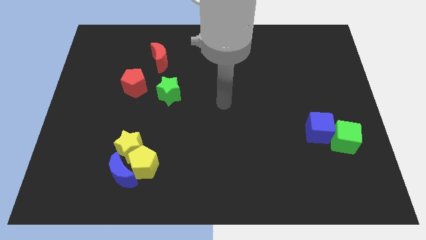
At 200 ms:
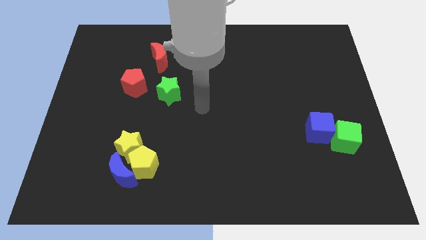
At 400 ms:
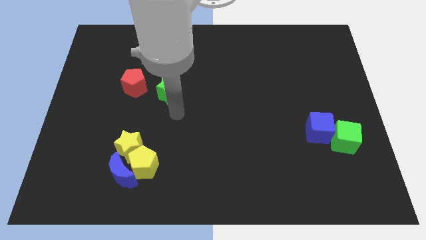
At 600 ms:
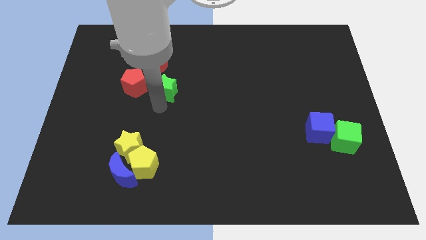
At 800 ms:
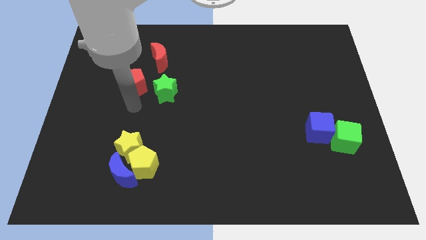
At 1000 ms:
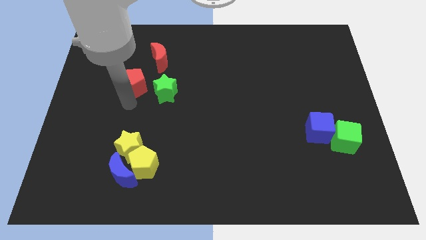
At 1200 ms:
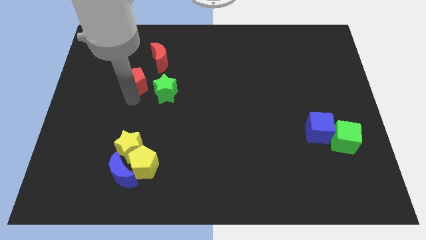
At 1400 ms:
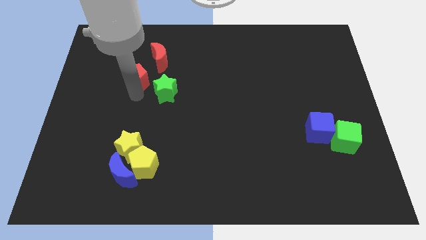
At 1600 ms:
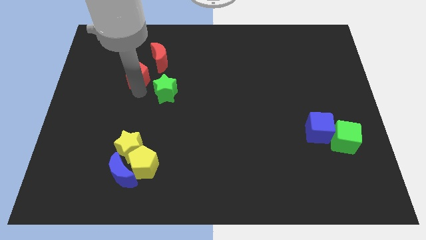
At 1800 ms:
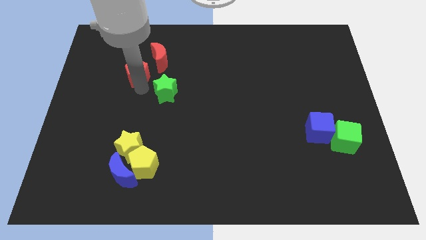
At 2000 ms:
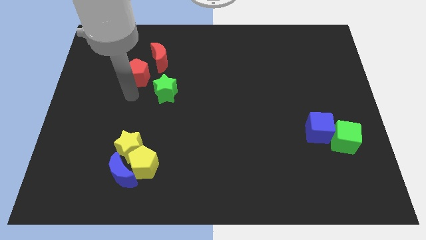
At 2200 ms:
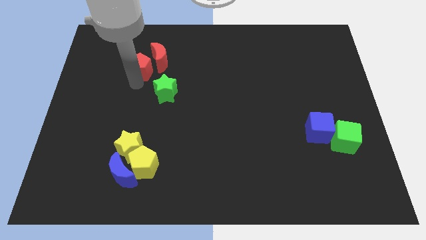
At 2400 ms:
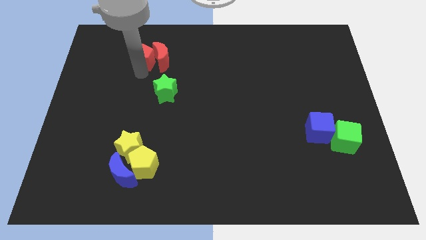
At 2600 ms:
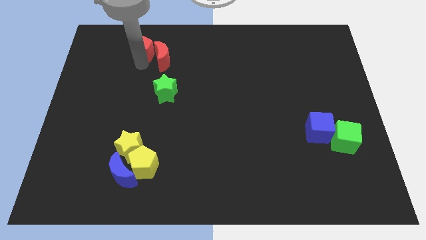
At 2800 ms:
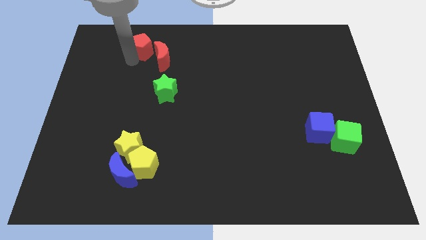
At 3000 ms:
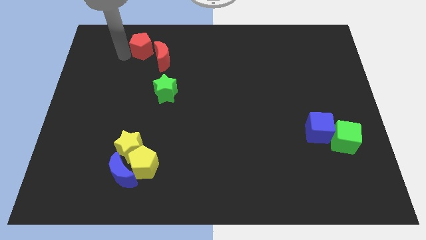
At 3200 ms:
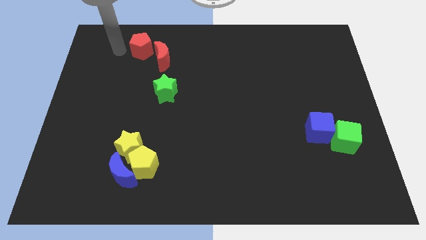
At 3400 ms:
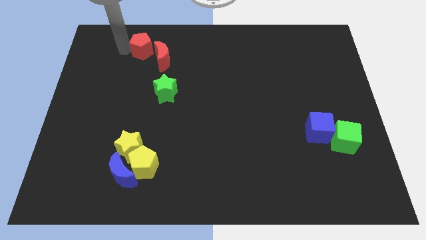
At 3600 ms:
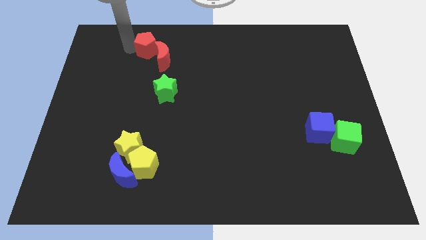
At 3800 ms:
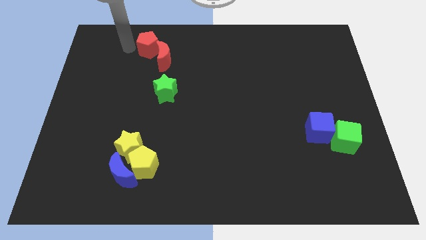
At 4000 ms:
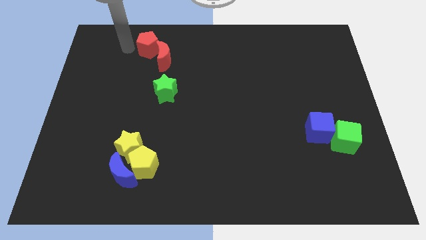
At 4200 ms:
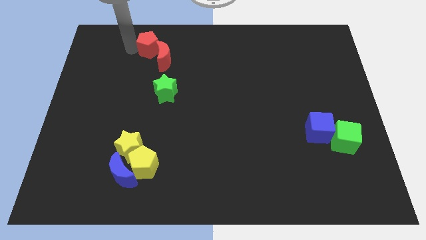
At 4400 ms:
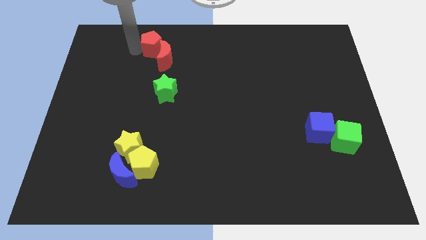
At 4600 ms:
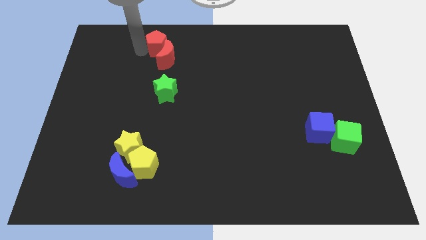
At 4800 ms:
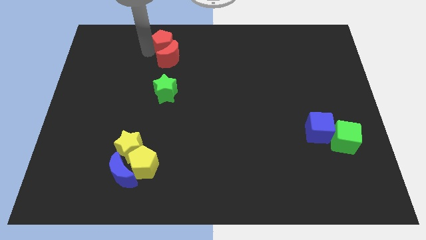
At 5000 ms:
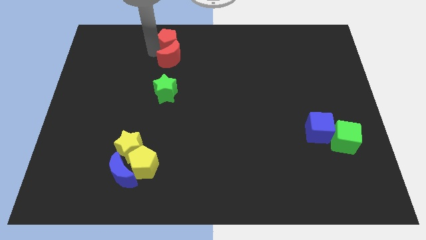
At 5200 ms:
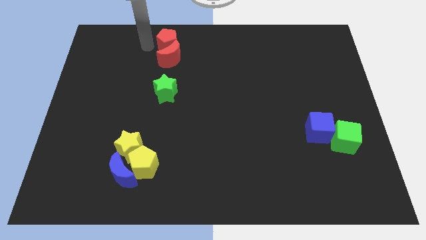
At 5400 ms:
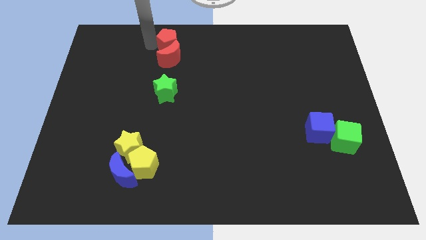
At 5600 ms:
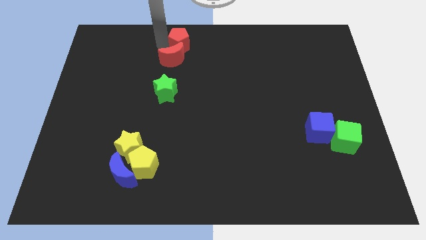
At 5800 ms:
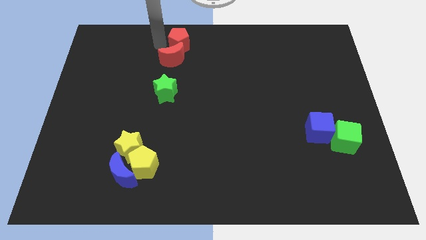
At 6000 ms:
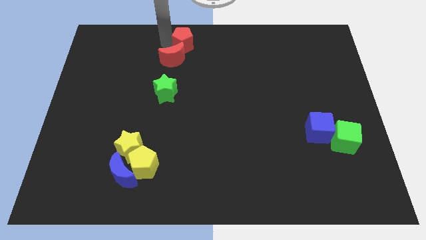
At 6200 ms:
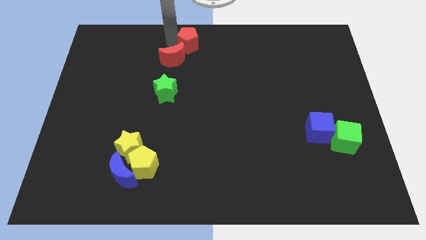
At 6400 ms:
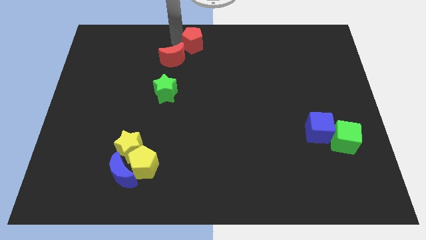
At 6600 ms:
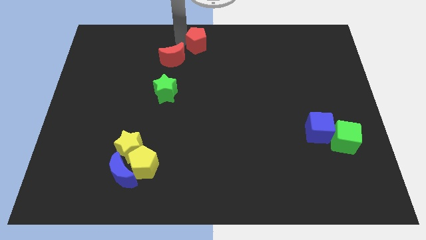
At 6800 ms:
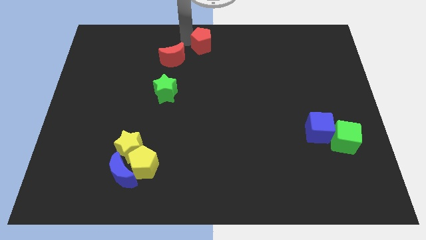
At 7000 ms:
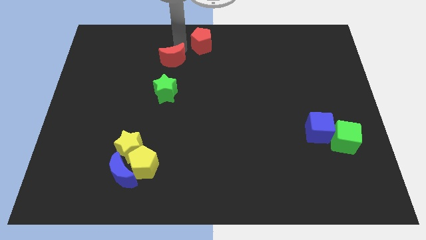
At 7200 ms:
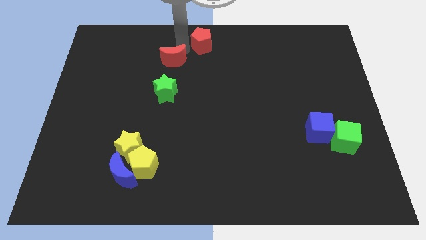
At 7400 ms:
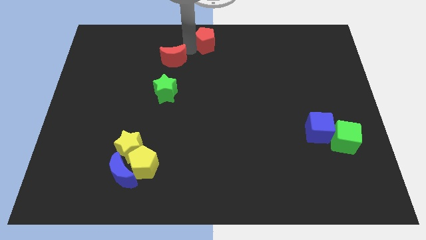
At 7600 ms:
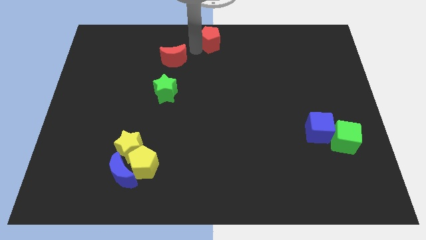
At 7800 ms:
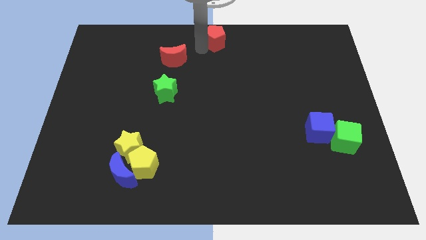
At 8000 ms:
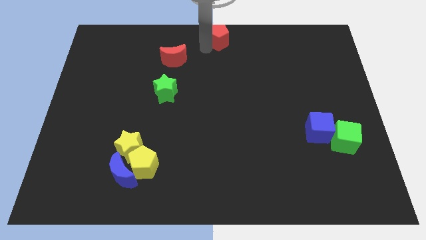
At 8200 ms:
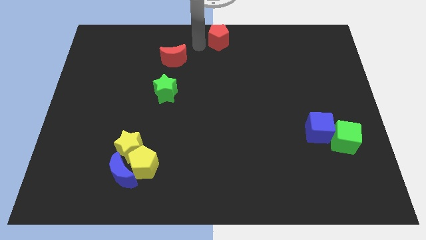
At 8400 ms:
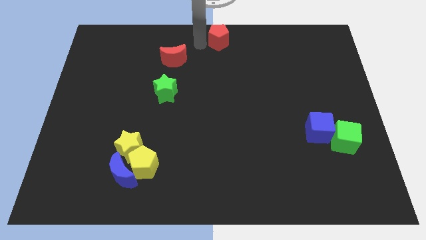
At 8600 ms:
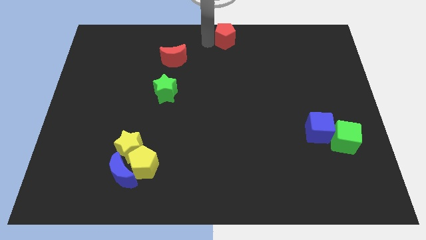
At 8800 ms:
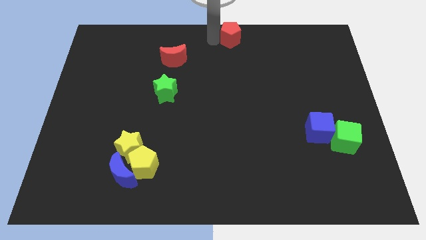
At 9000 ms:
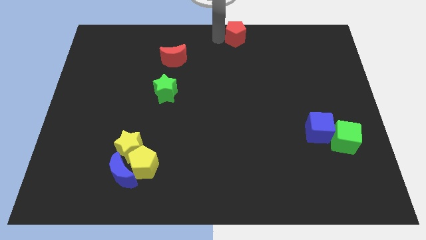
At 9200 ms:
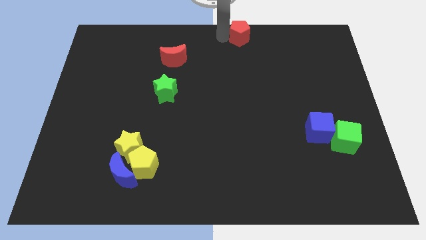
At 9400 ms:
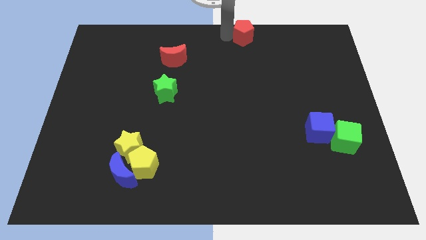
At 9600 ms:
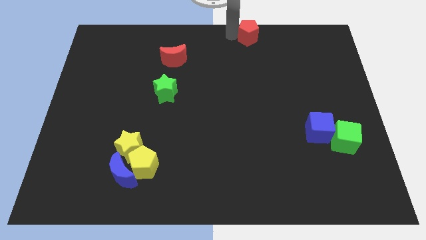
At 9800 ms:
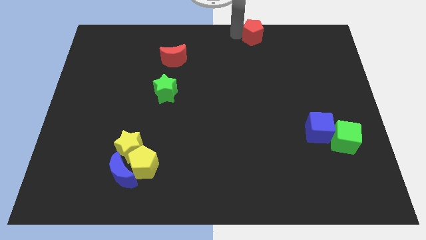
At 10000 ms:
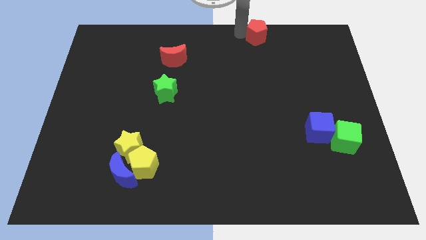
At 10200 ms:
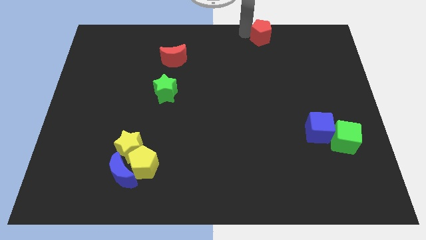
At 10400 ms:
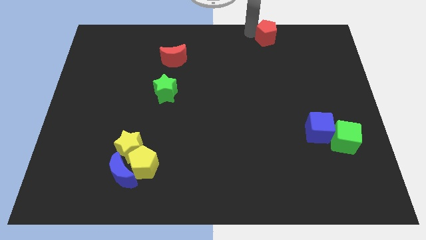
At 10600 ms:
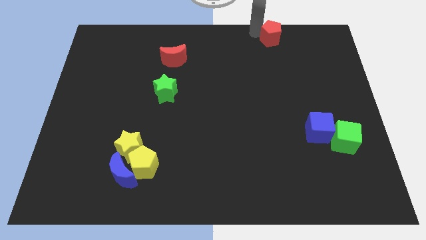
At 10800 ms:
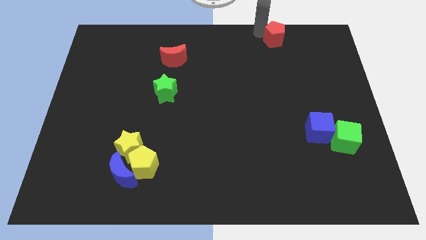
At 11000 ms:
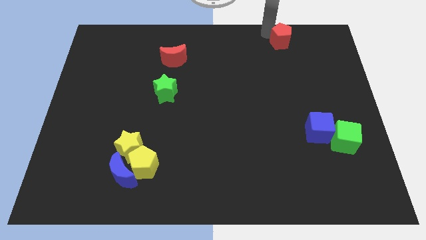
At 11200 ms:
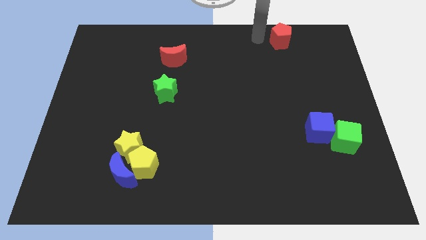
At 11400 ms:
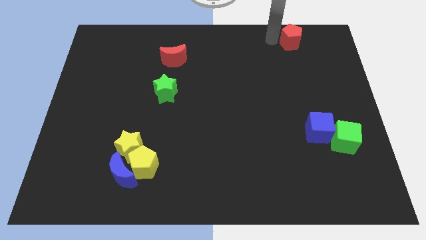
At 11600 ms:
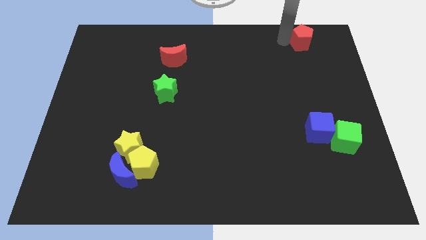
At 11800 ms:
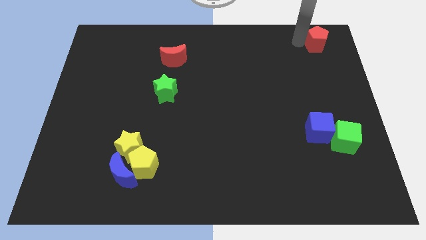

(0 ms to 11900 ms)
put the red pentagon to the top right of the board
